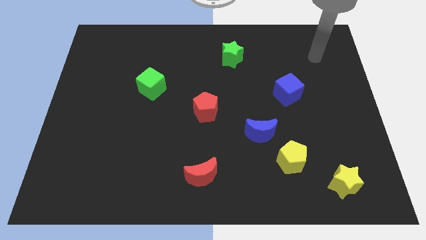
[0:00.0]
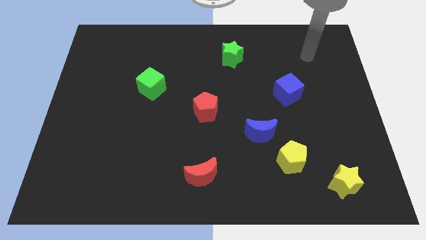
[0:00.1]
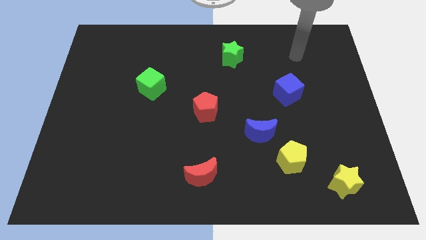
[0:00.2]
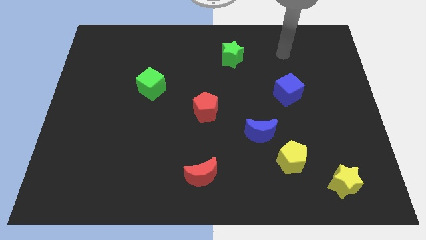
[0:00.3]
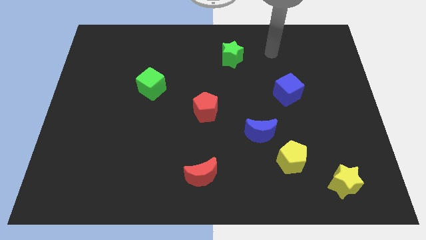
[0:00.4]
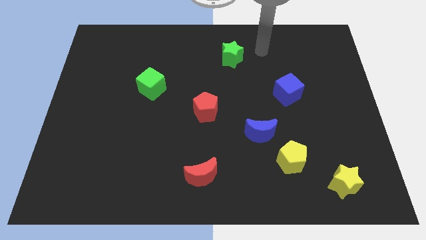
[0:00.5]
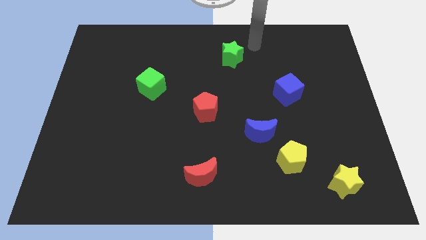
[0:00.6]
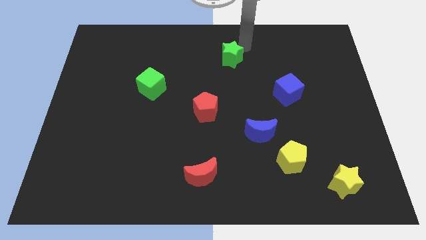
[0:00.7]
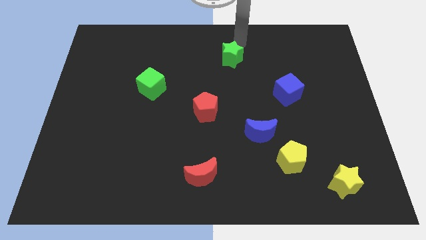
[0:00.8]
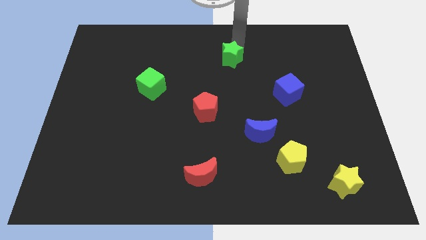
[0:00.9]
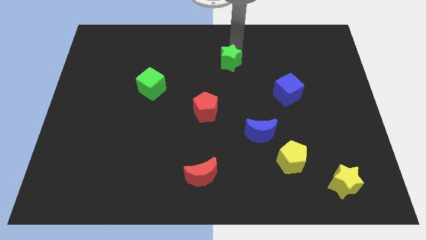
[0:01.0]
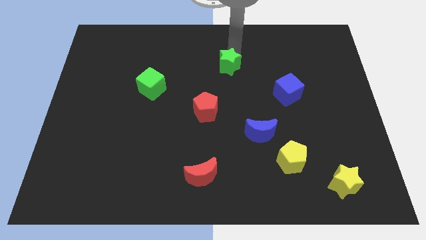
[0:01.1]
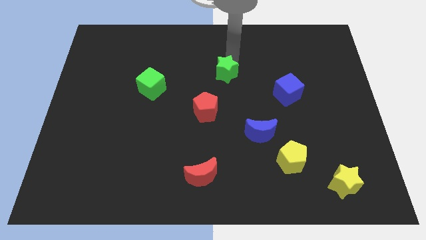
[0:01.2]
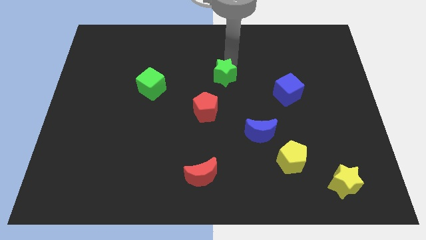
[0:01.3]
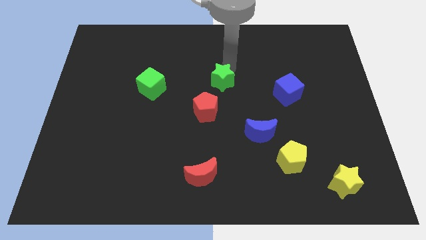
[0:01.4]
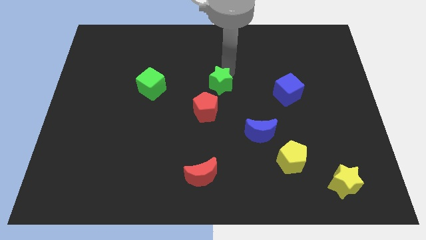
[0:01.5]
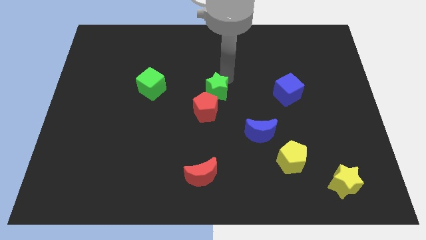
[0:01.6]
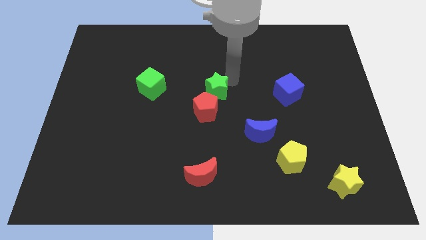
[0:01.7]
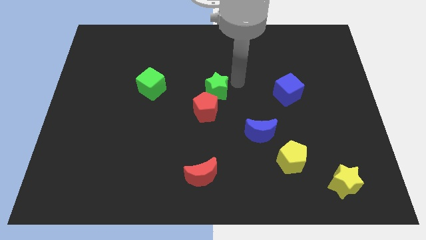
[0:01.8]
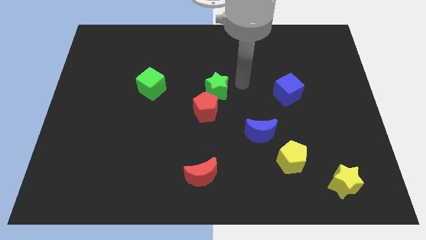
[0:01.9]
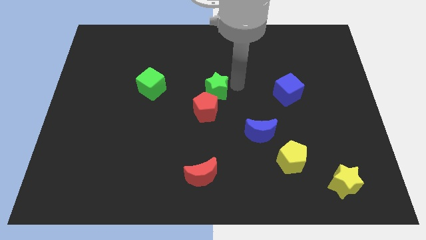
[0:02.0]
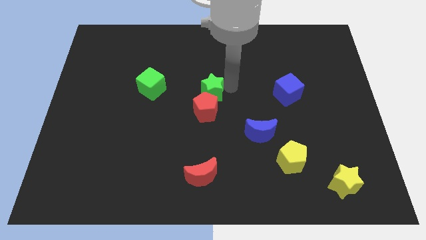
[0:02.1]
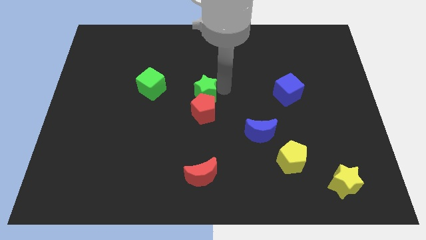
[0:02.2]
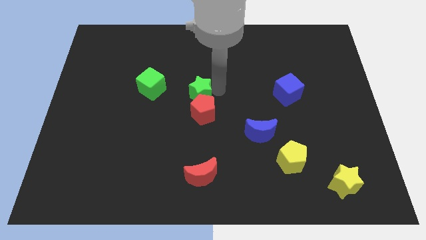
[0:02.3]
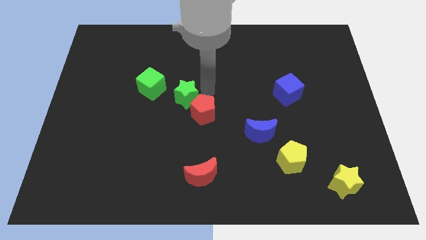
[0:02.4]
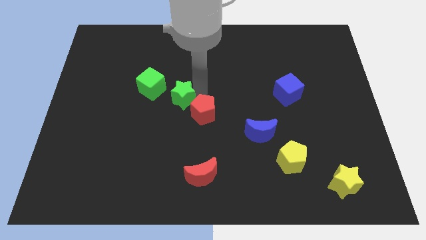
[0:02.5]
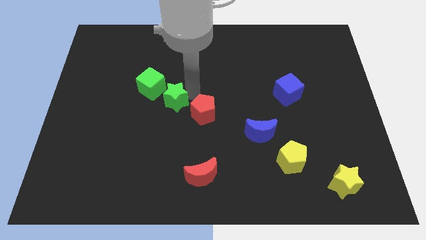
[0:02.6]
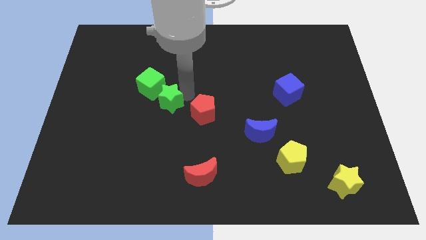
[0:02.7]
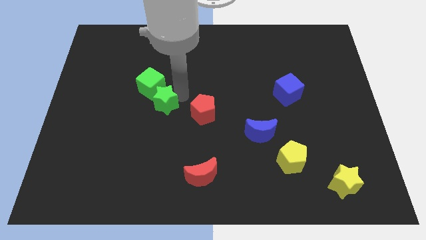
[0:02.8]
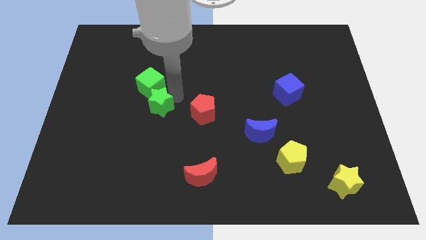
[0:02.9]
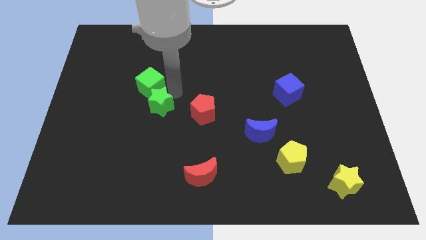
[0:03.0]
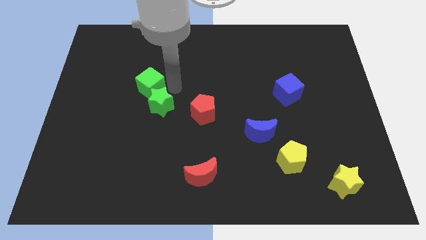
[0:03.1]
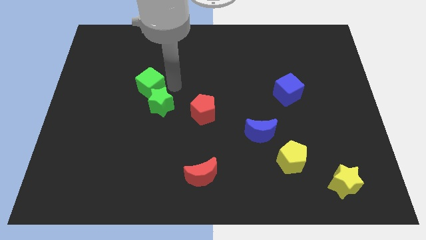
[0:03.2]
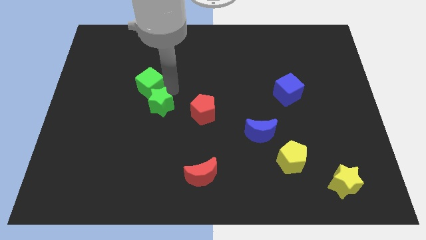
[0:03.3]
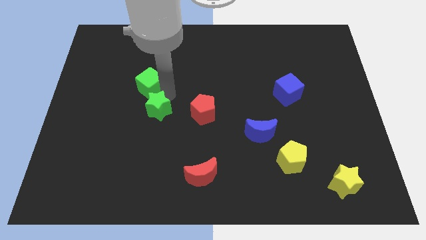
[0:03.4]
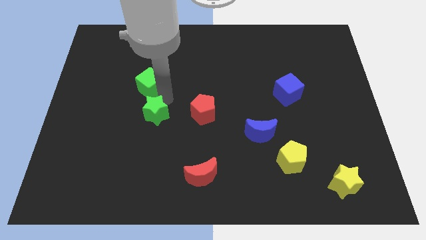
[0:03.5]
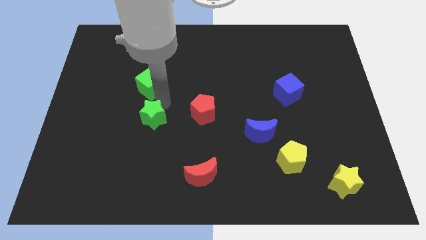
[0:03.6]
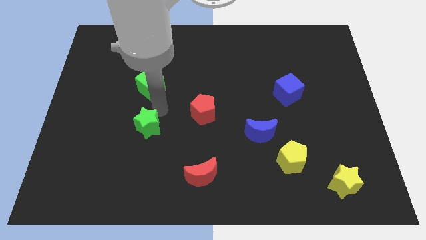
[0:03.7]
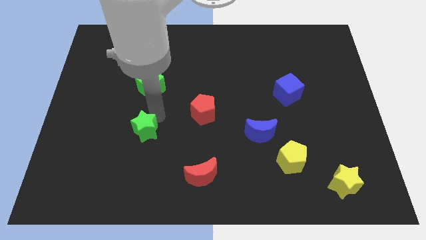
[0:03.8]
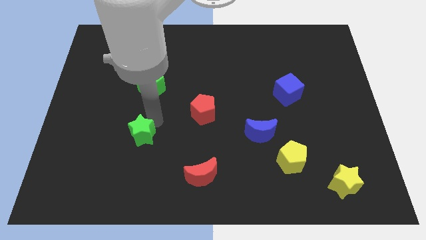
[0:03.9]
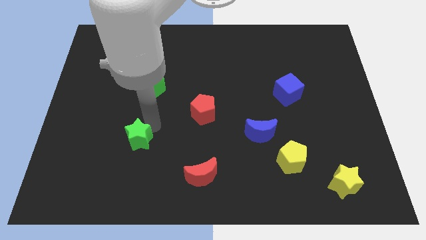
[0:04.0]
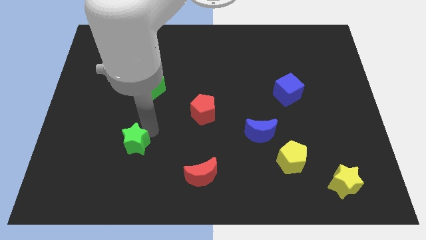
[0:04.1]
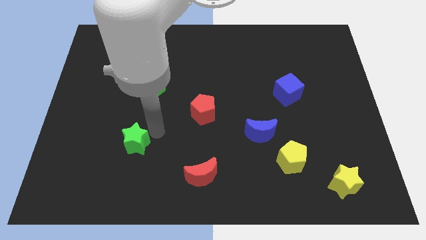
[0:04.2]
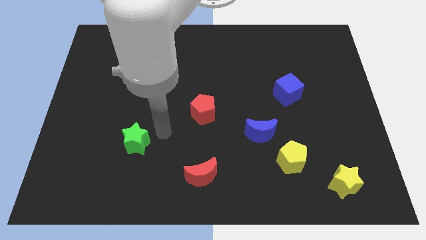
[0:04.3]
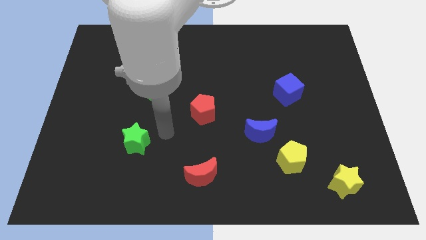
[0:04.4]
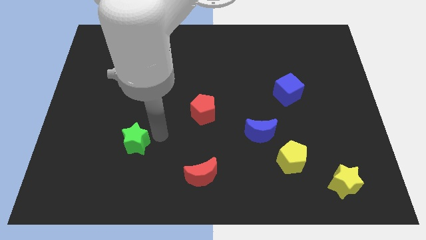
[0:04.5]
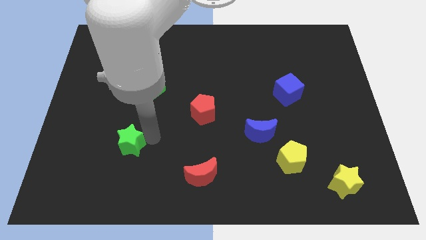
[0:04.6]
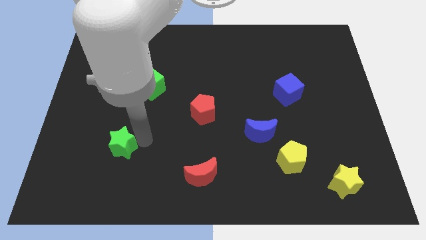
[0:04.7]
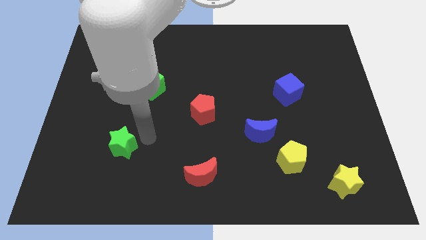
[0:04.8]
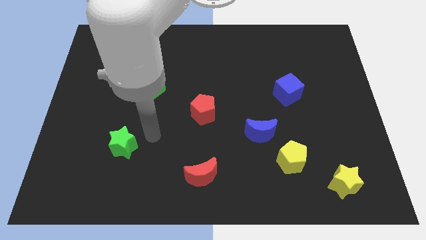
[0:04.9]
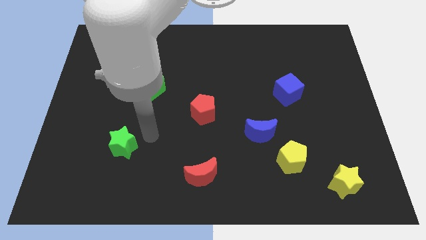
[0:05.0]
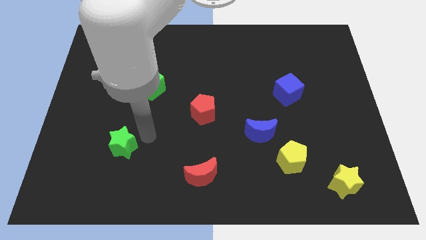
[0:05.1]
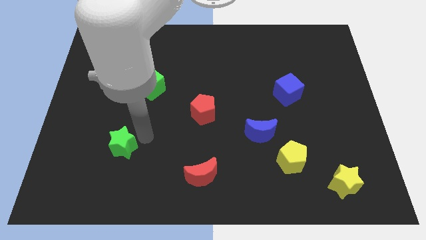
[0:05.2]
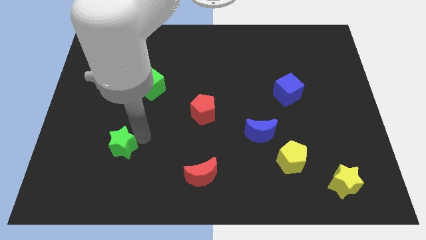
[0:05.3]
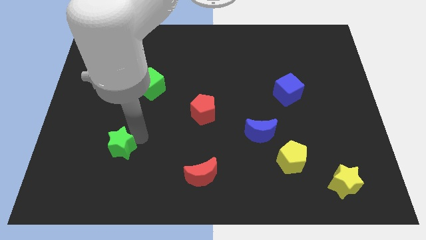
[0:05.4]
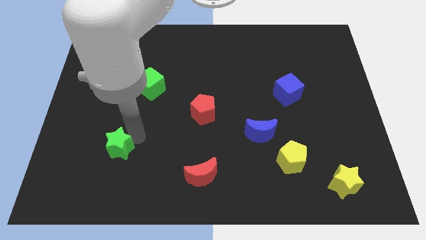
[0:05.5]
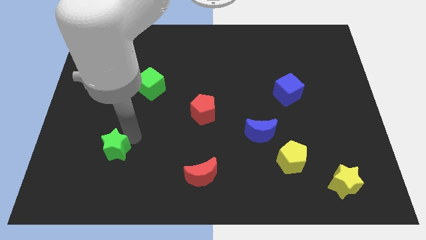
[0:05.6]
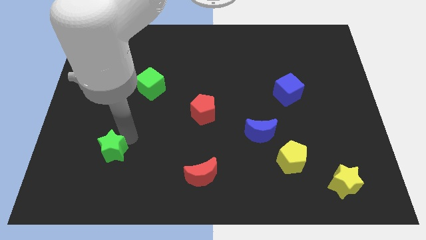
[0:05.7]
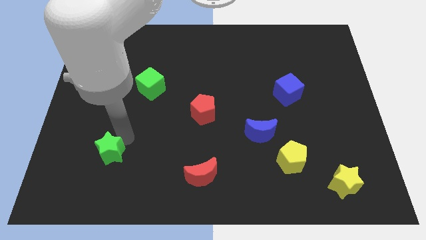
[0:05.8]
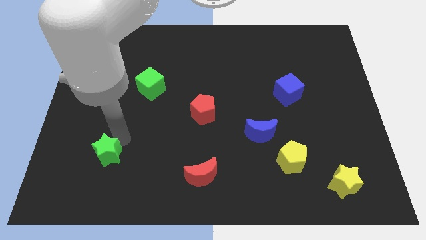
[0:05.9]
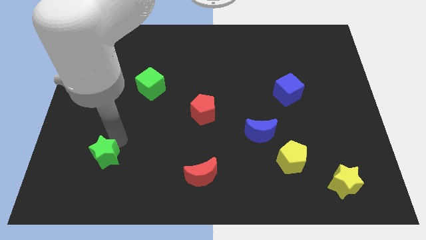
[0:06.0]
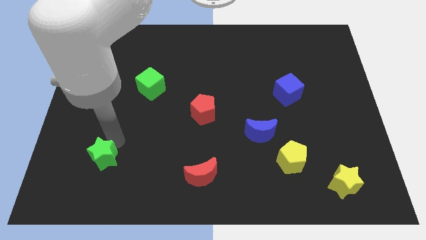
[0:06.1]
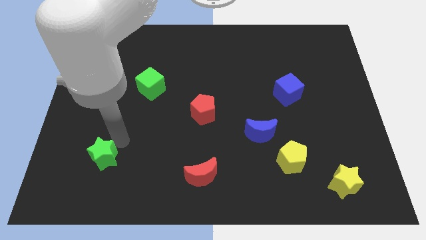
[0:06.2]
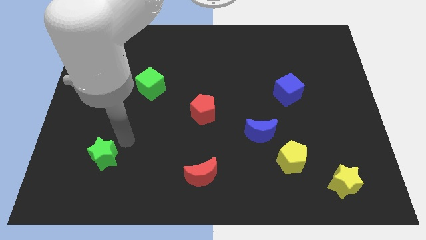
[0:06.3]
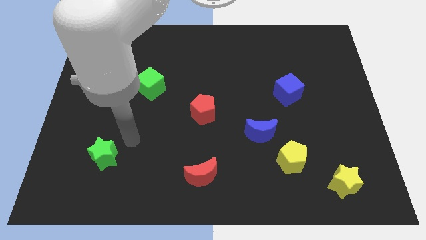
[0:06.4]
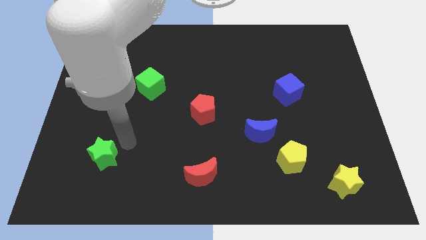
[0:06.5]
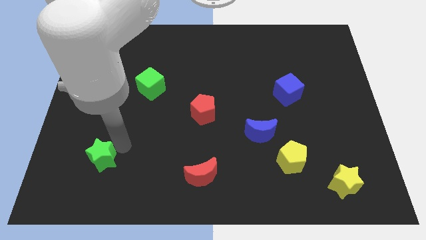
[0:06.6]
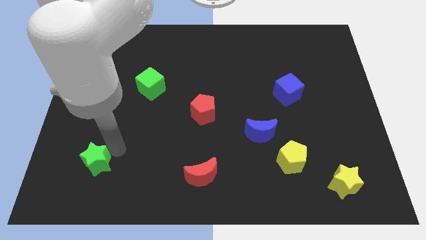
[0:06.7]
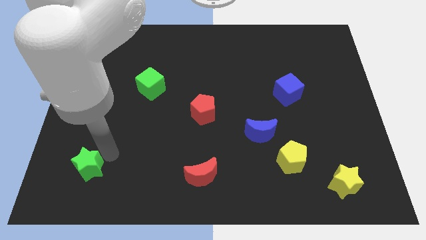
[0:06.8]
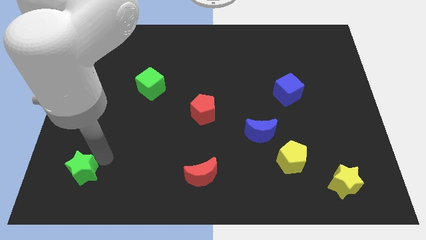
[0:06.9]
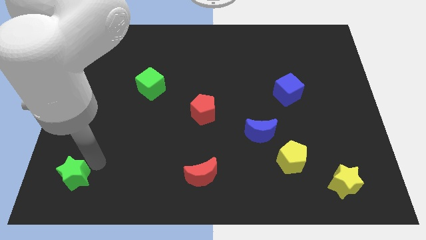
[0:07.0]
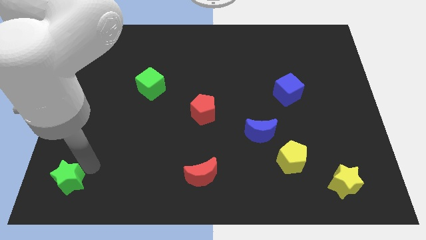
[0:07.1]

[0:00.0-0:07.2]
push the green star to the lower left corner
